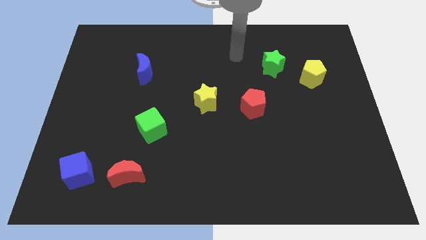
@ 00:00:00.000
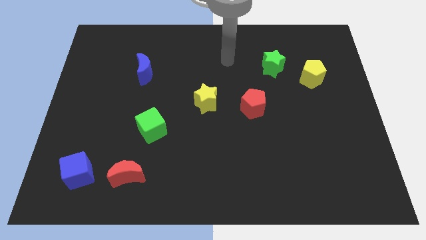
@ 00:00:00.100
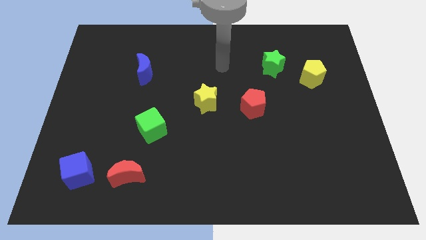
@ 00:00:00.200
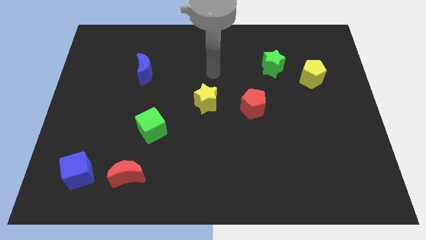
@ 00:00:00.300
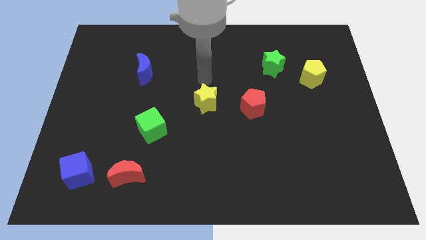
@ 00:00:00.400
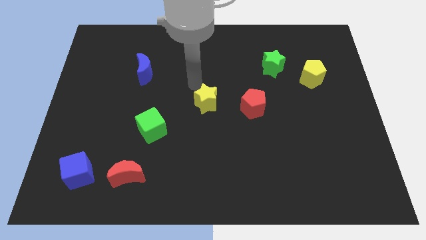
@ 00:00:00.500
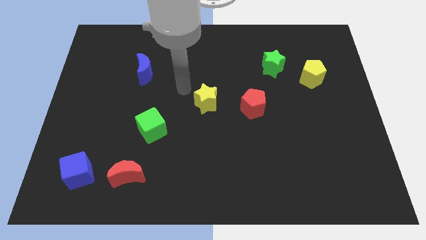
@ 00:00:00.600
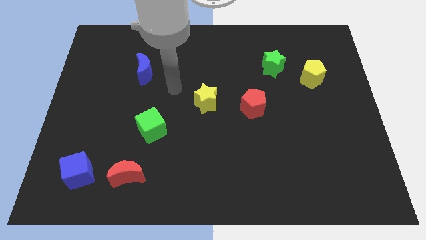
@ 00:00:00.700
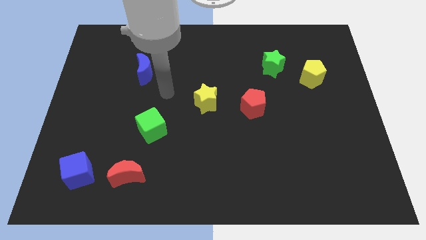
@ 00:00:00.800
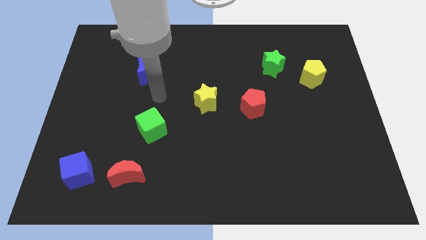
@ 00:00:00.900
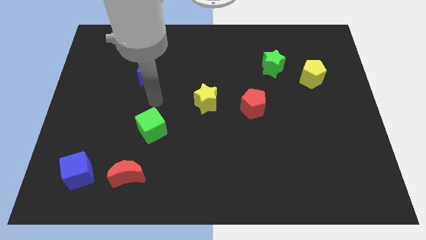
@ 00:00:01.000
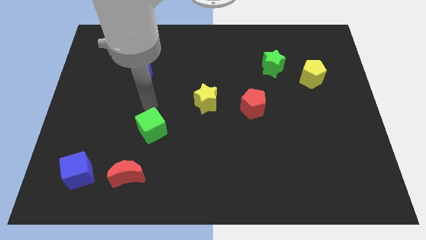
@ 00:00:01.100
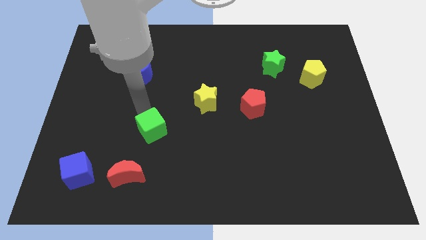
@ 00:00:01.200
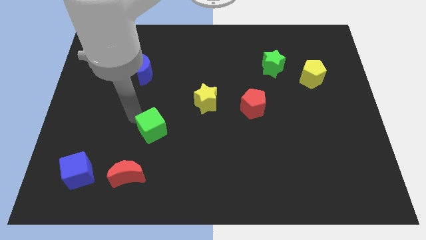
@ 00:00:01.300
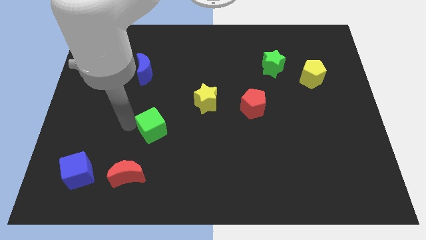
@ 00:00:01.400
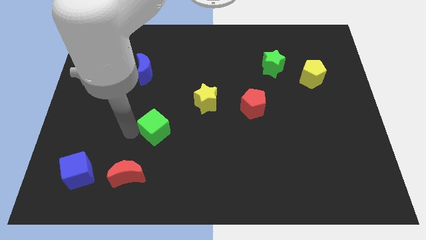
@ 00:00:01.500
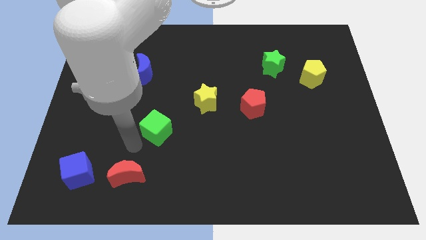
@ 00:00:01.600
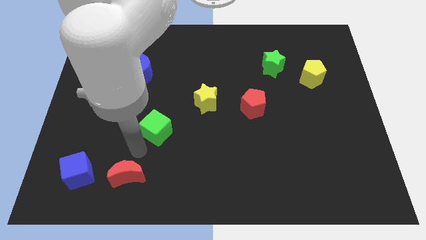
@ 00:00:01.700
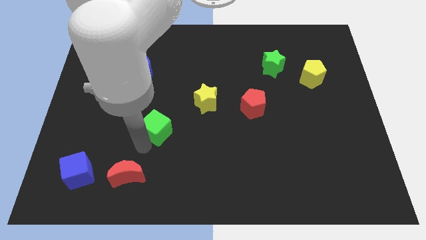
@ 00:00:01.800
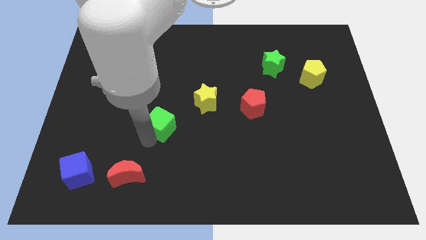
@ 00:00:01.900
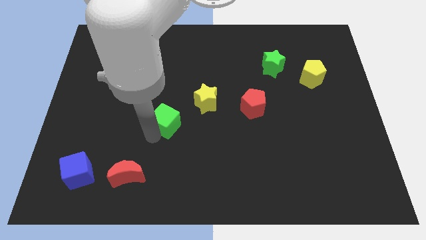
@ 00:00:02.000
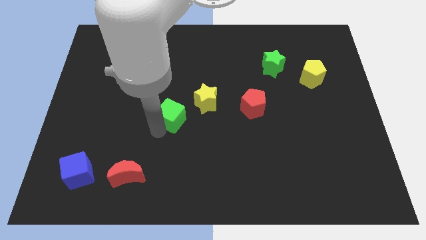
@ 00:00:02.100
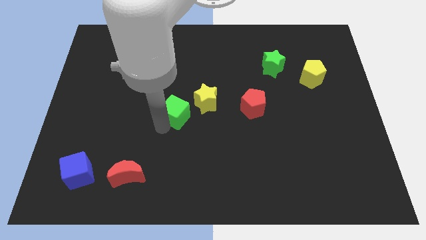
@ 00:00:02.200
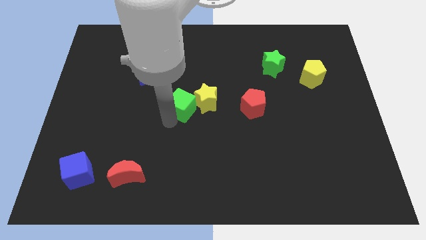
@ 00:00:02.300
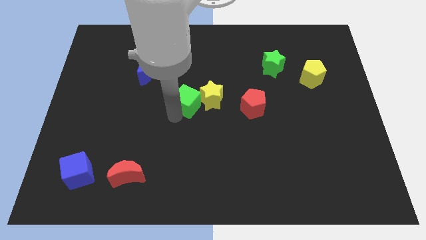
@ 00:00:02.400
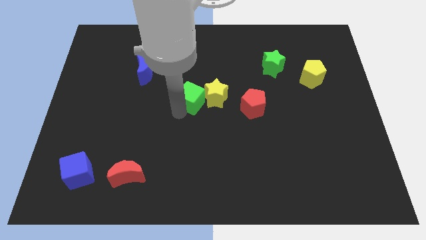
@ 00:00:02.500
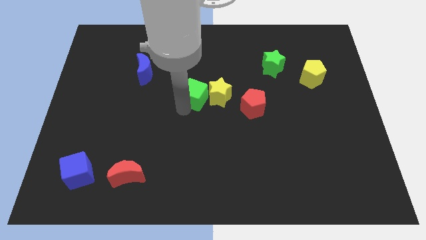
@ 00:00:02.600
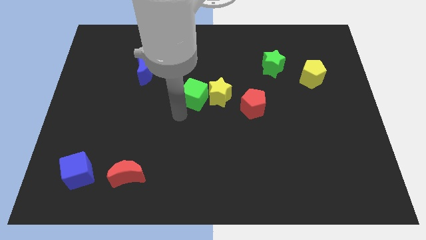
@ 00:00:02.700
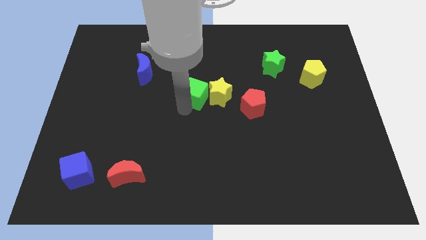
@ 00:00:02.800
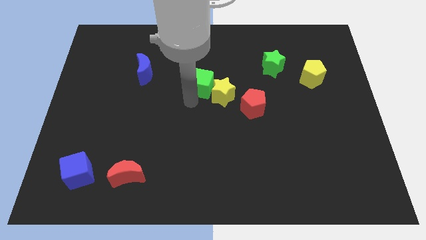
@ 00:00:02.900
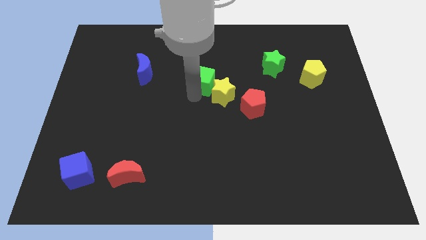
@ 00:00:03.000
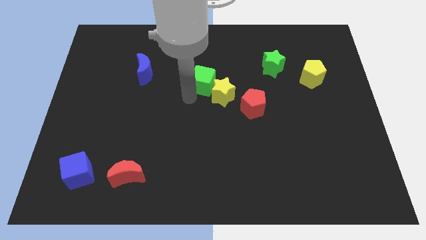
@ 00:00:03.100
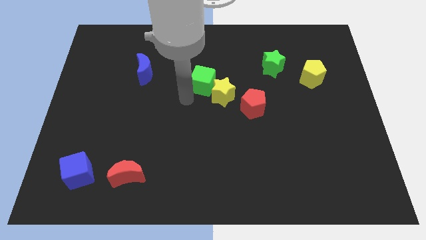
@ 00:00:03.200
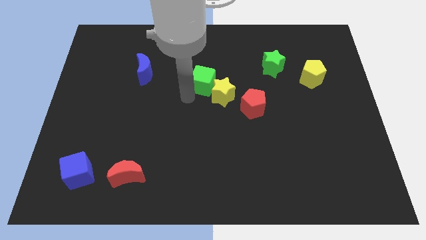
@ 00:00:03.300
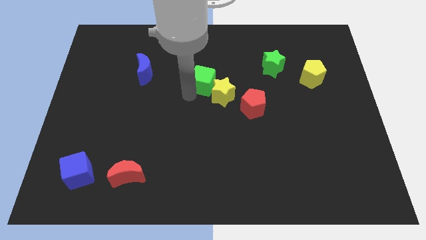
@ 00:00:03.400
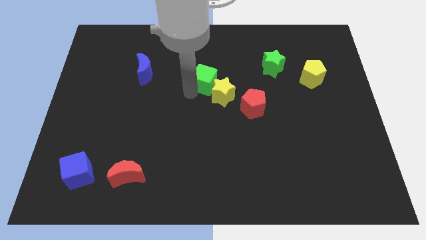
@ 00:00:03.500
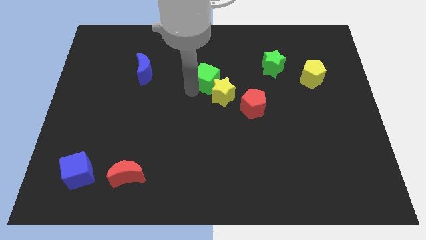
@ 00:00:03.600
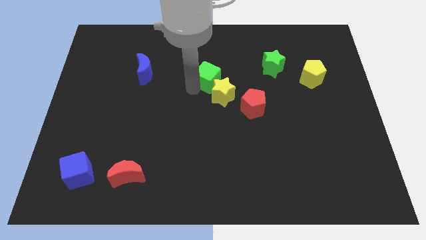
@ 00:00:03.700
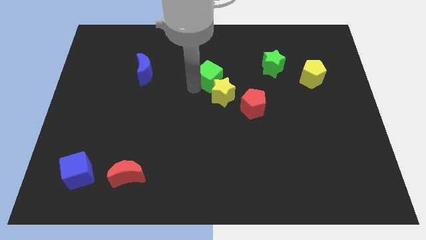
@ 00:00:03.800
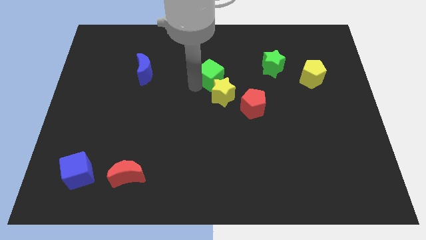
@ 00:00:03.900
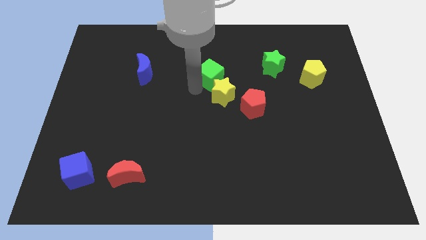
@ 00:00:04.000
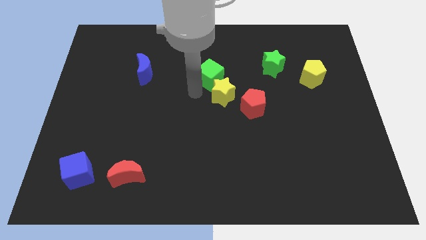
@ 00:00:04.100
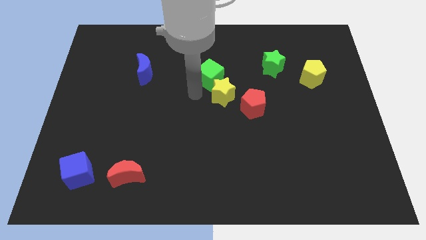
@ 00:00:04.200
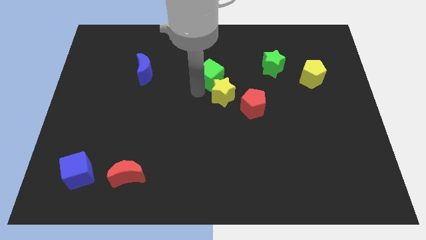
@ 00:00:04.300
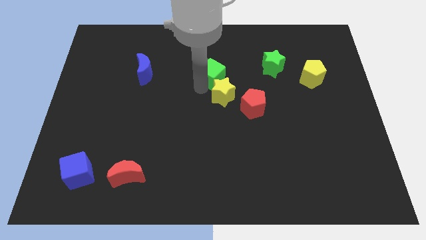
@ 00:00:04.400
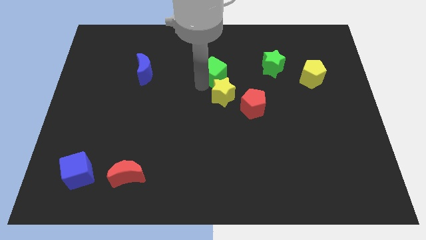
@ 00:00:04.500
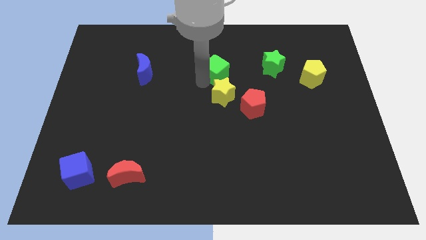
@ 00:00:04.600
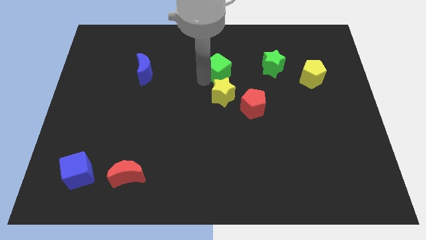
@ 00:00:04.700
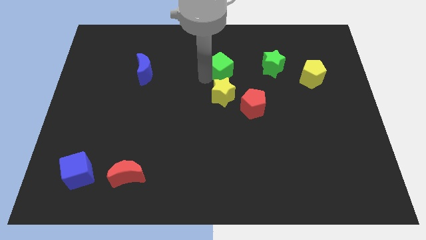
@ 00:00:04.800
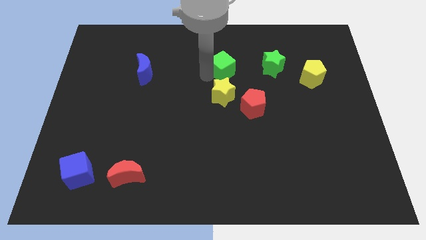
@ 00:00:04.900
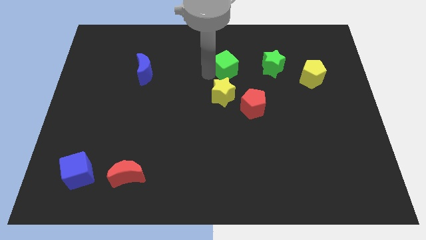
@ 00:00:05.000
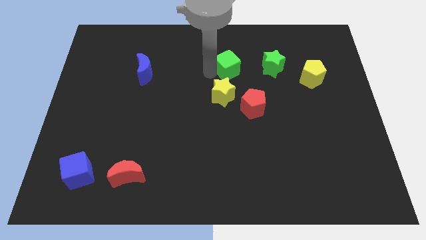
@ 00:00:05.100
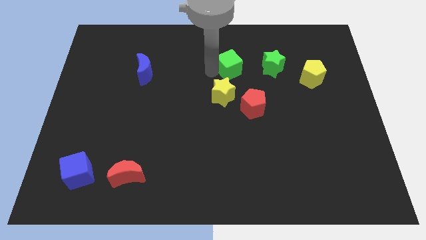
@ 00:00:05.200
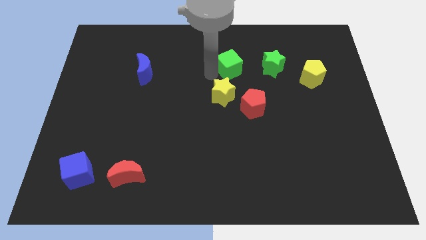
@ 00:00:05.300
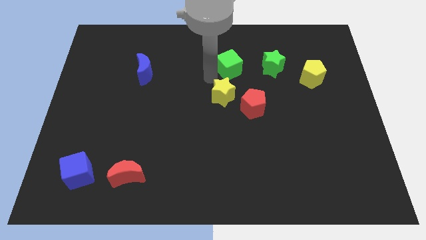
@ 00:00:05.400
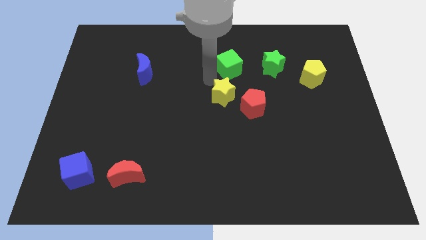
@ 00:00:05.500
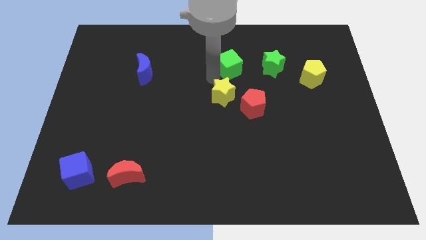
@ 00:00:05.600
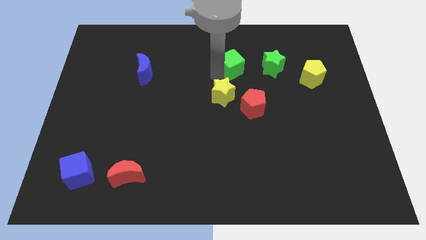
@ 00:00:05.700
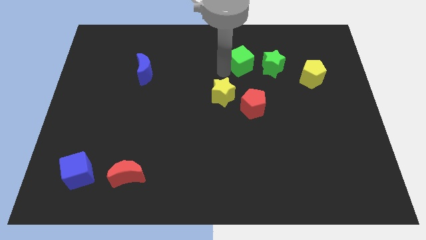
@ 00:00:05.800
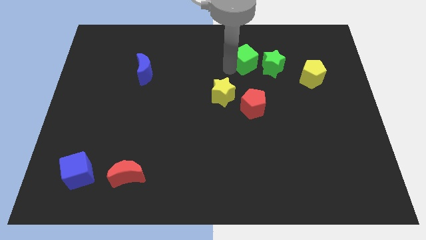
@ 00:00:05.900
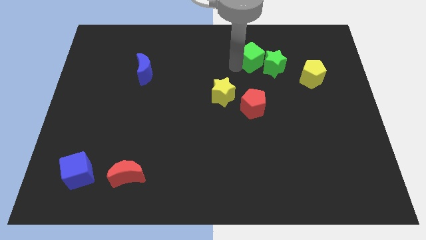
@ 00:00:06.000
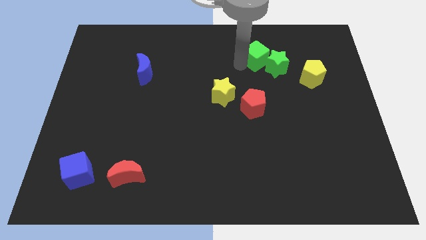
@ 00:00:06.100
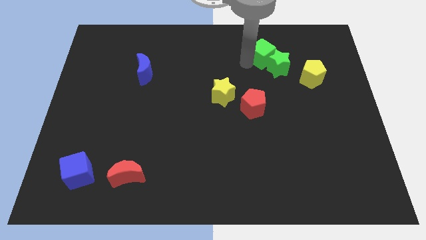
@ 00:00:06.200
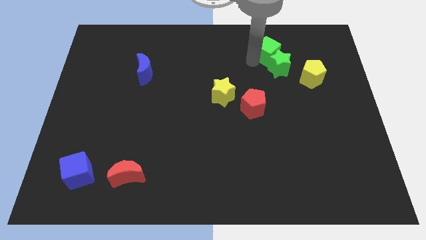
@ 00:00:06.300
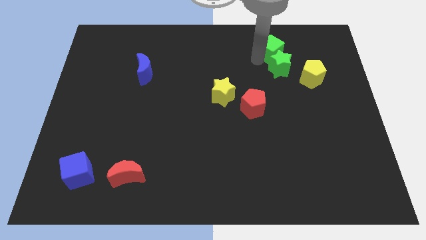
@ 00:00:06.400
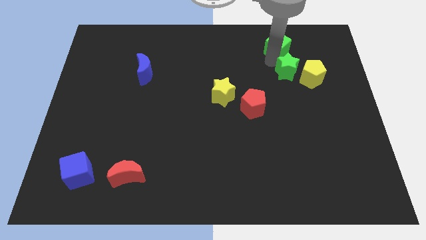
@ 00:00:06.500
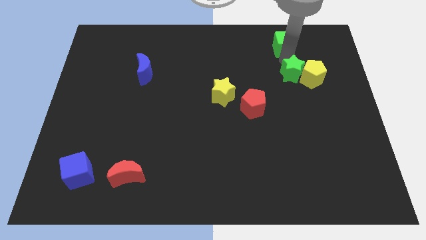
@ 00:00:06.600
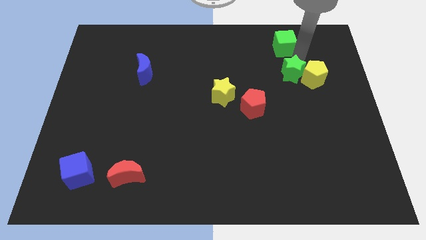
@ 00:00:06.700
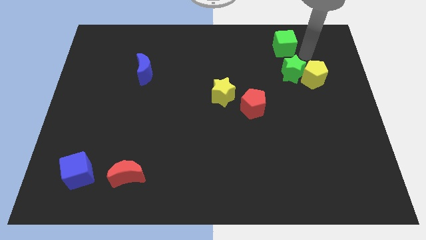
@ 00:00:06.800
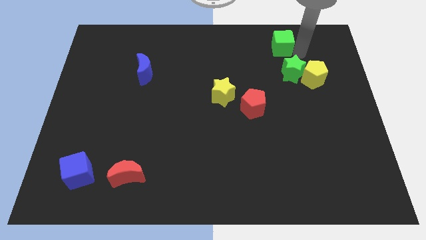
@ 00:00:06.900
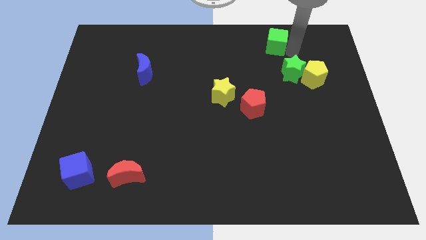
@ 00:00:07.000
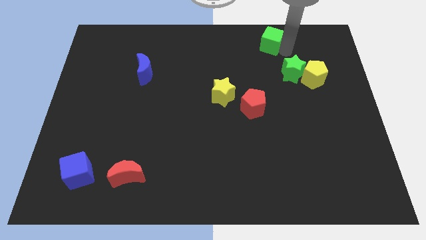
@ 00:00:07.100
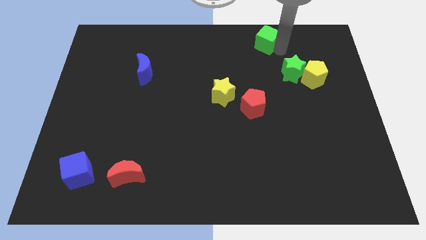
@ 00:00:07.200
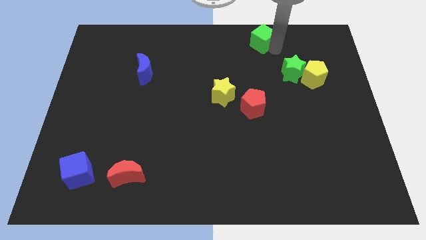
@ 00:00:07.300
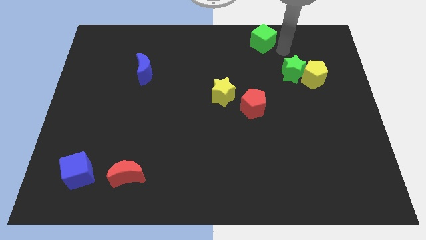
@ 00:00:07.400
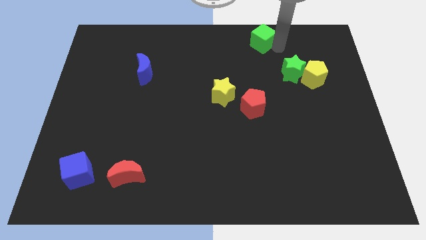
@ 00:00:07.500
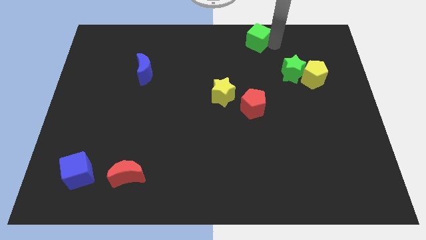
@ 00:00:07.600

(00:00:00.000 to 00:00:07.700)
put the green cube to the top
